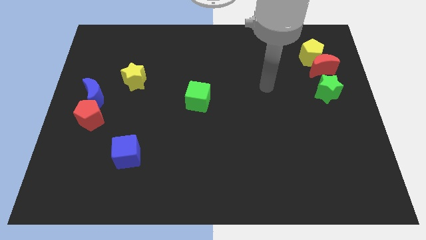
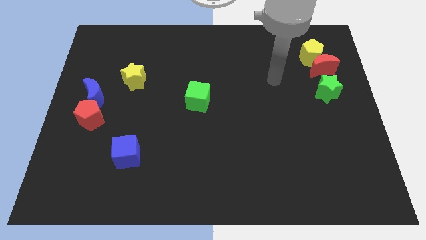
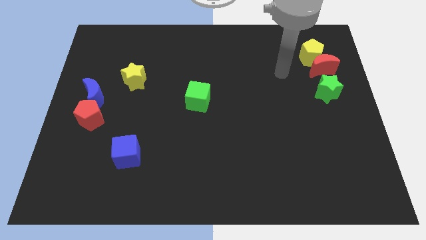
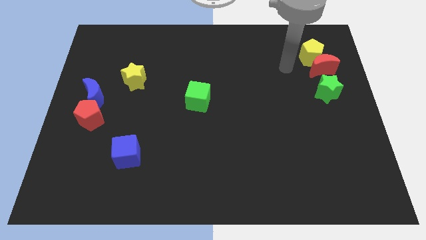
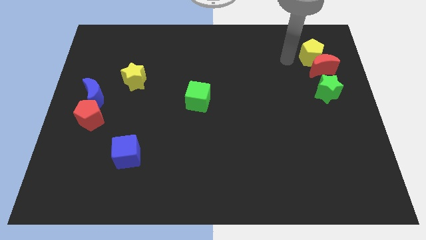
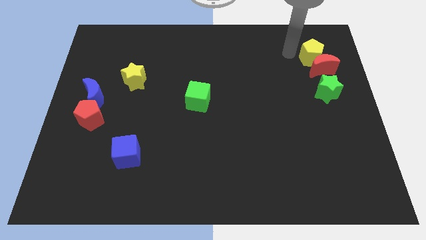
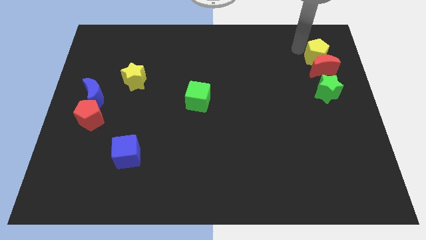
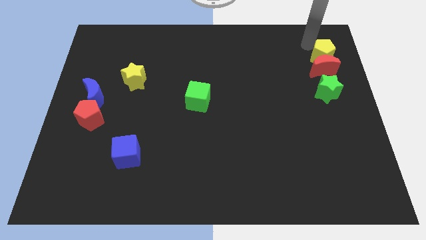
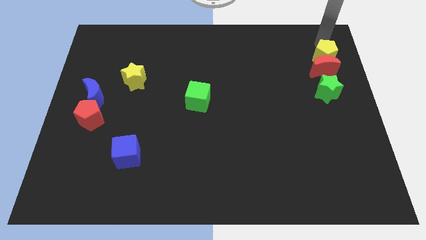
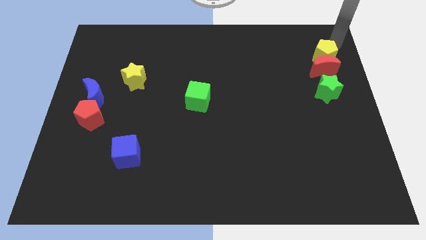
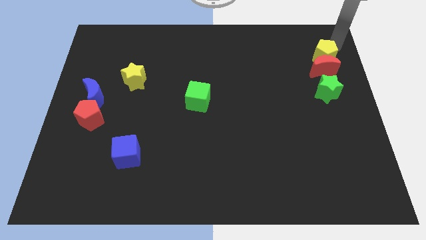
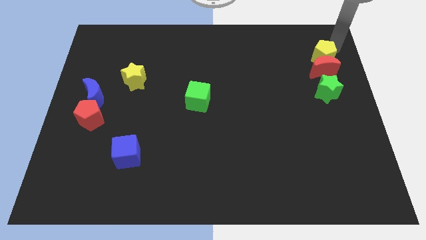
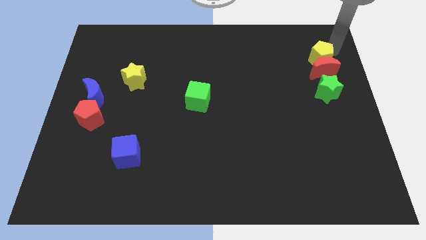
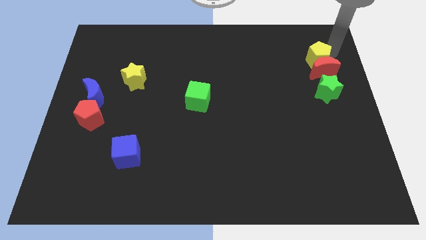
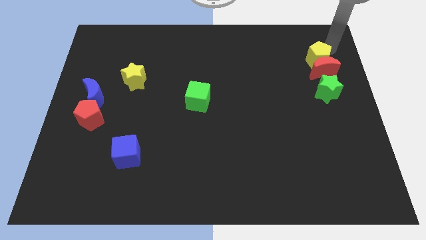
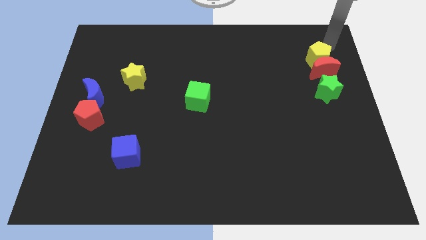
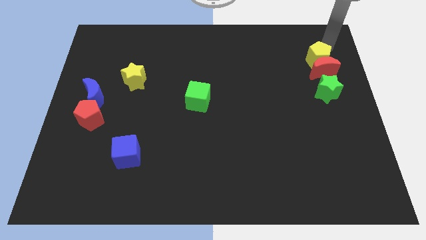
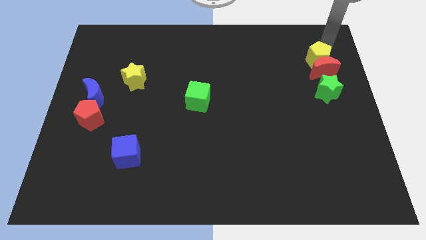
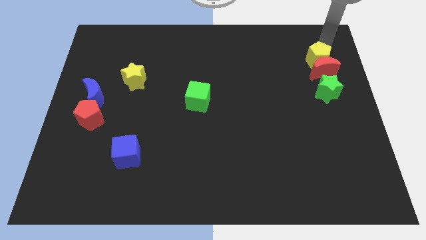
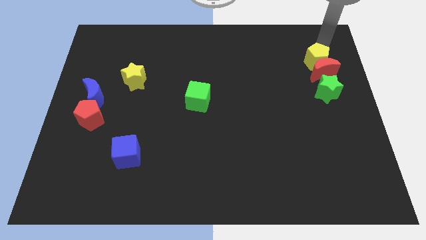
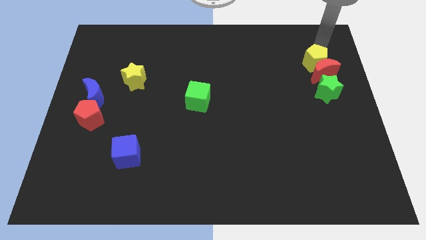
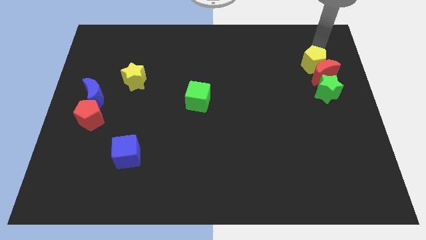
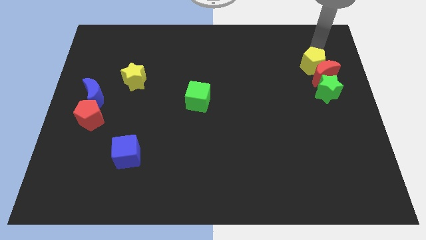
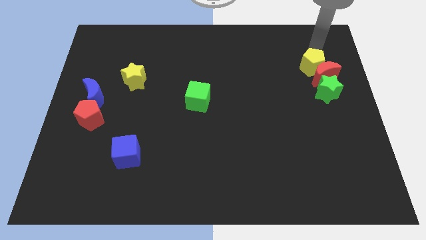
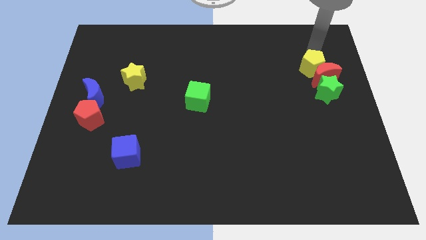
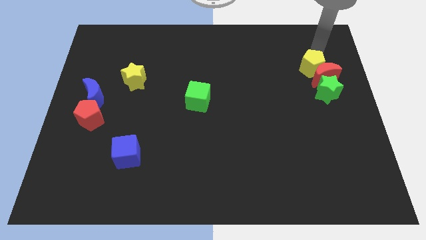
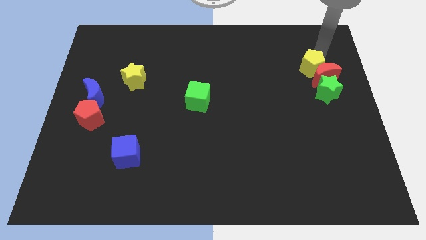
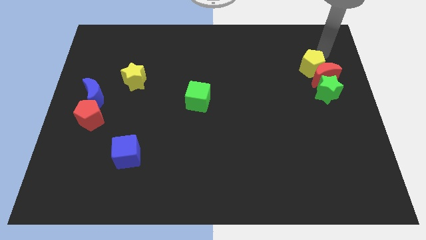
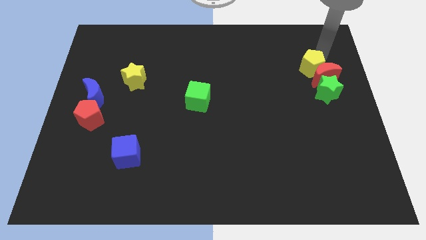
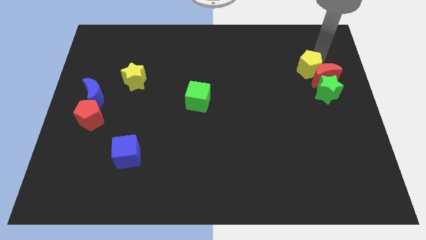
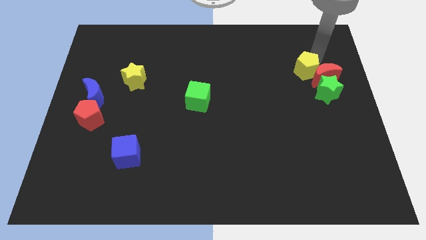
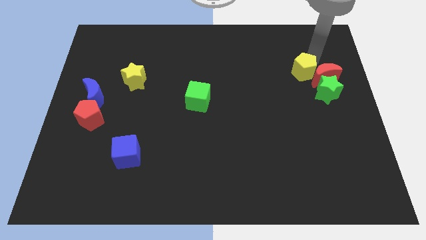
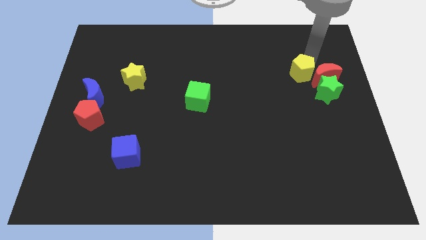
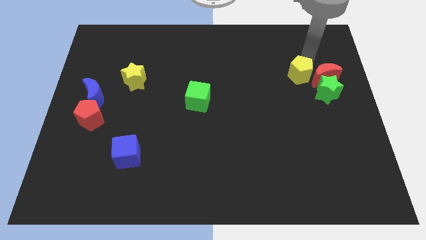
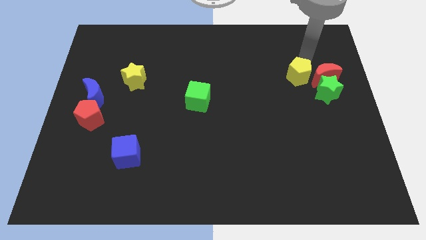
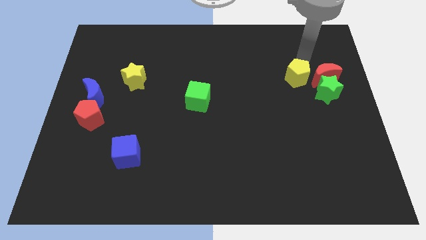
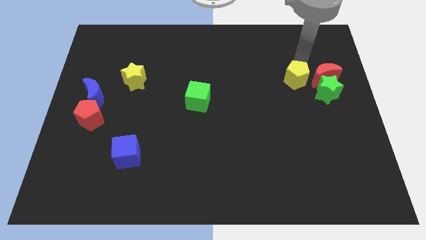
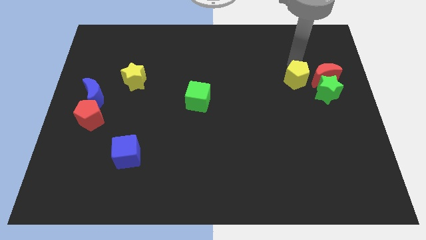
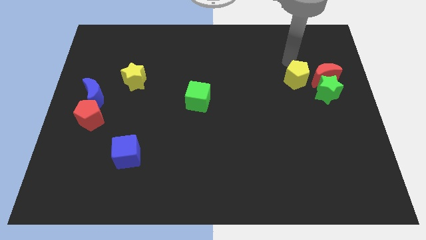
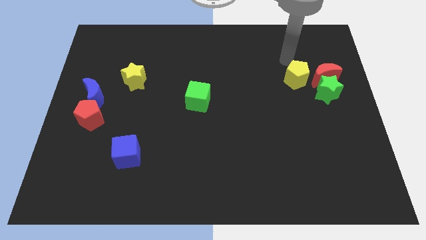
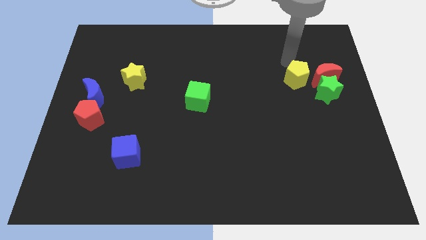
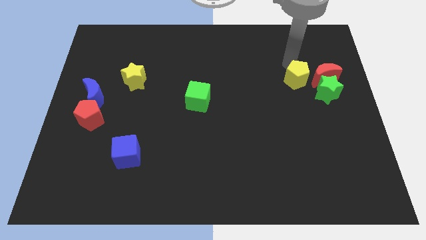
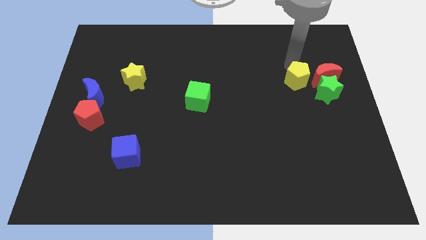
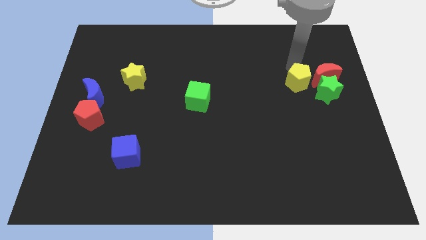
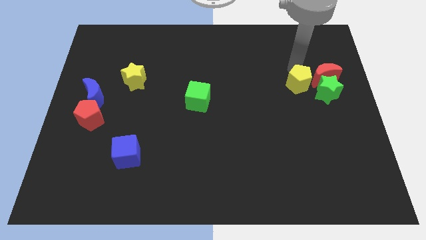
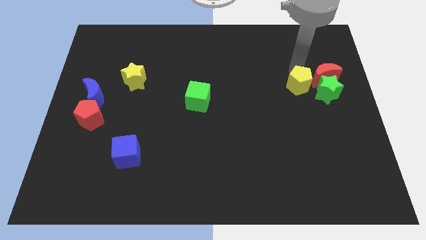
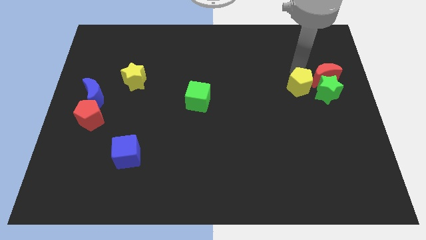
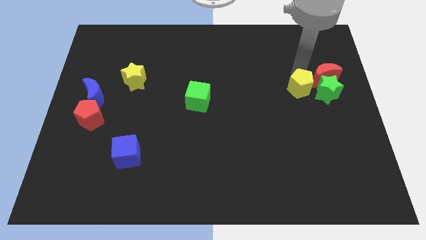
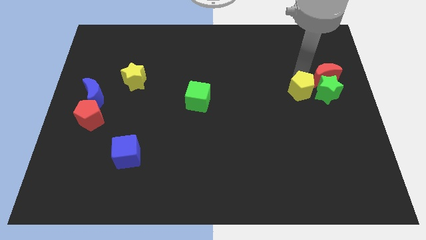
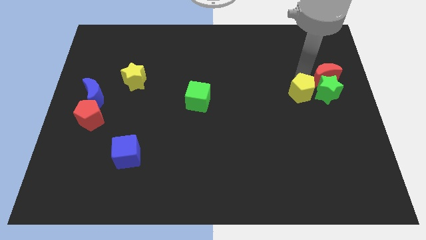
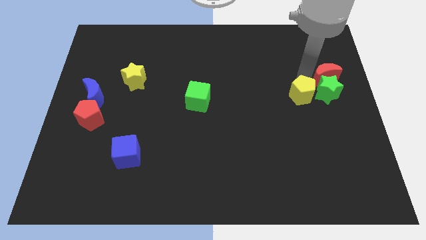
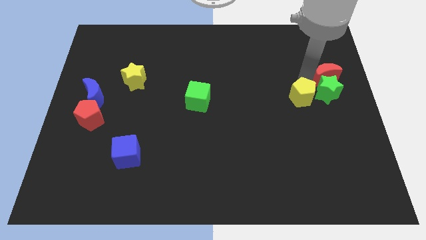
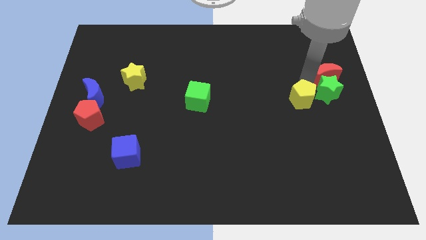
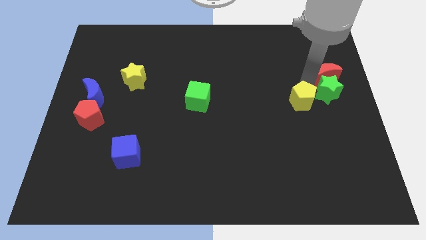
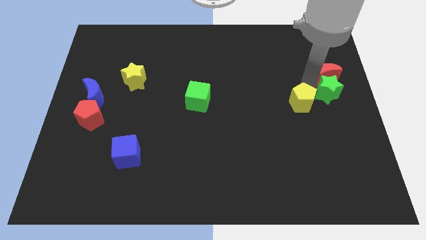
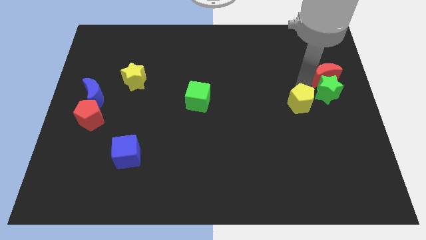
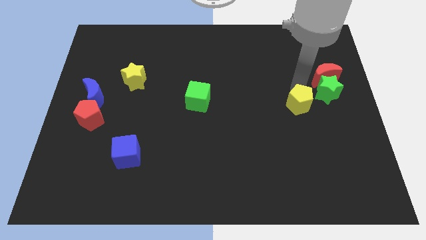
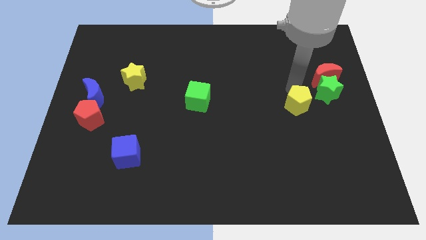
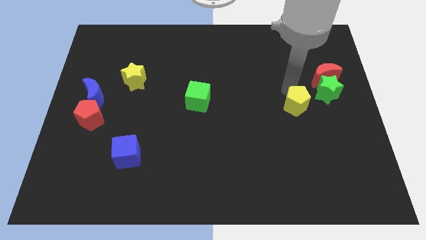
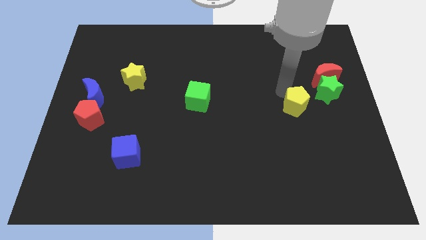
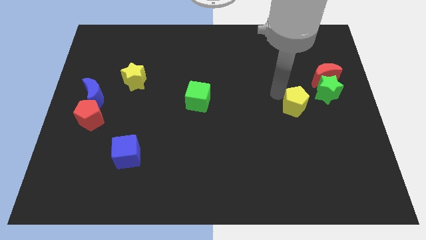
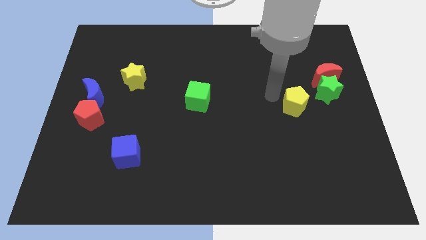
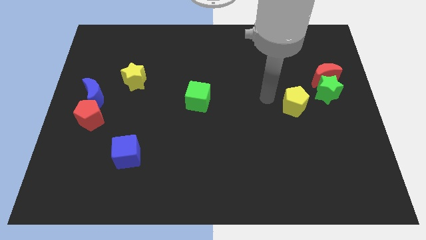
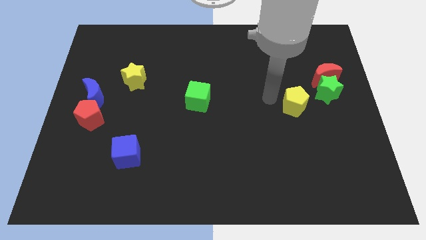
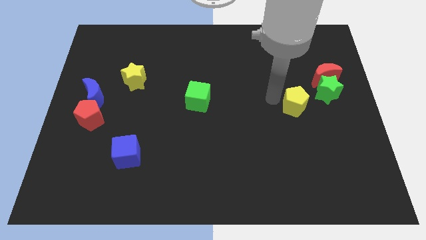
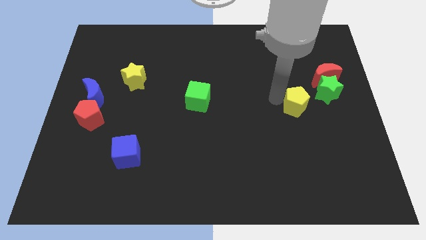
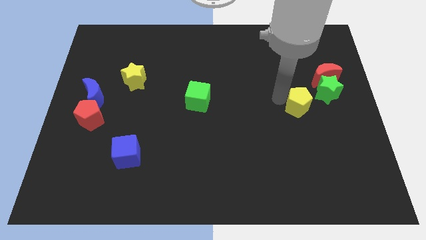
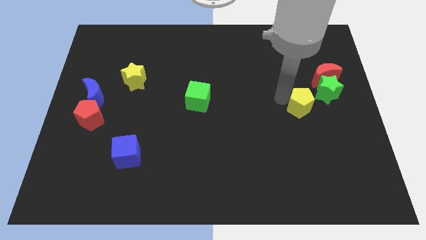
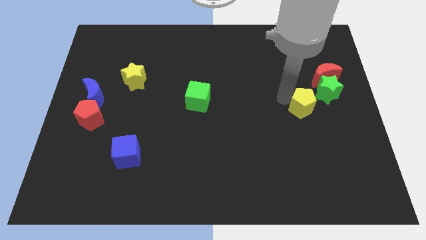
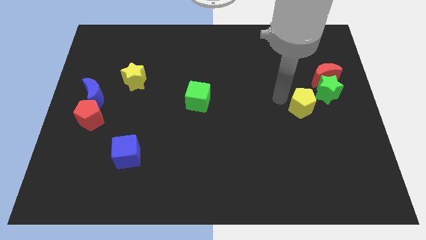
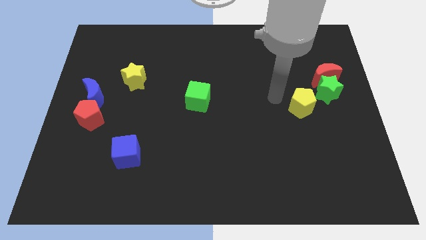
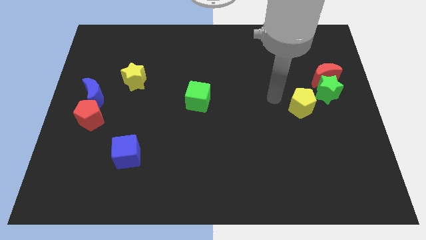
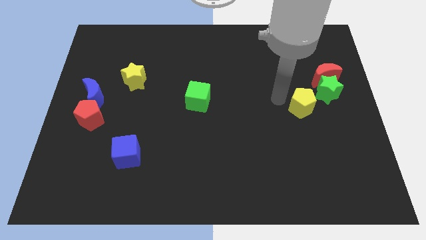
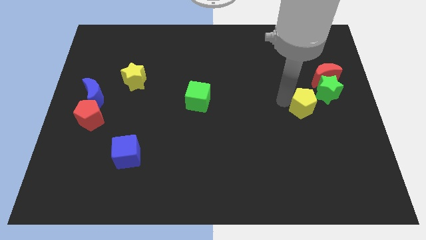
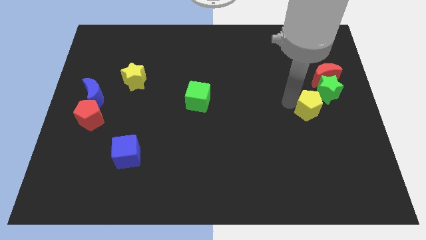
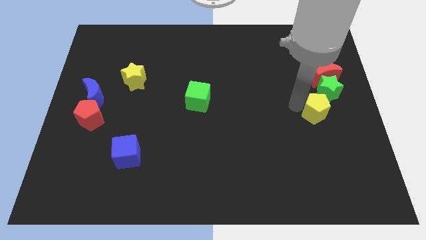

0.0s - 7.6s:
put the yellow pentagon to the bottom of the red moon

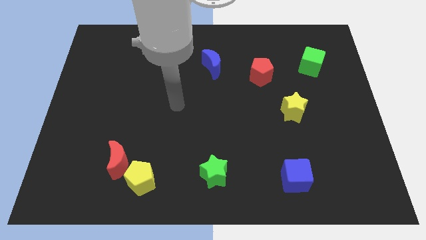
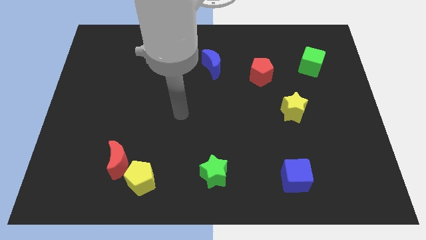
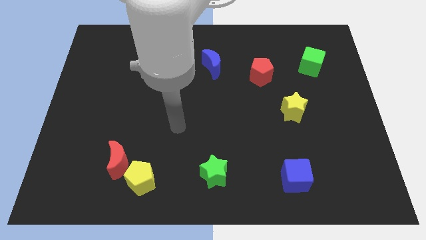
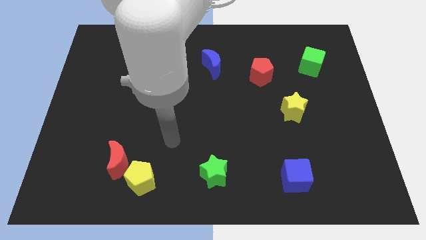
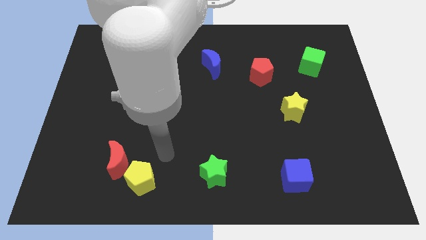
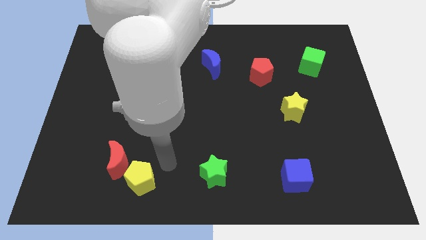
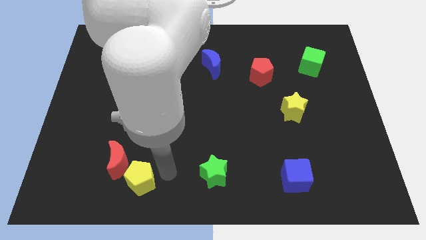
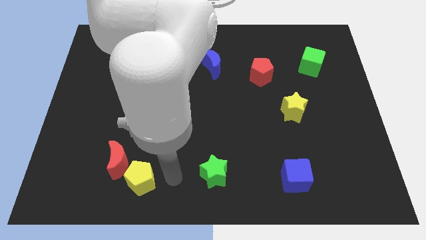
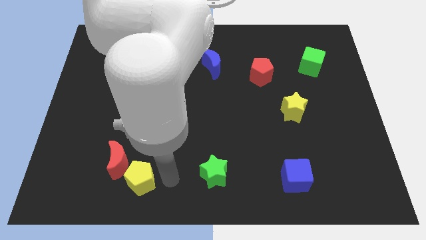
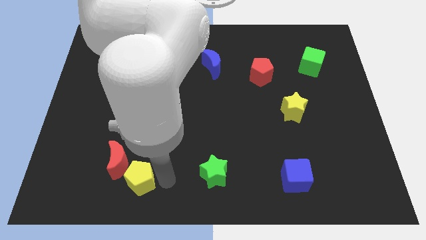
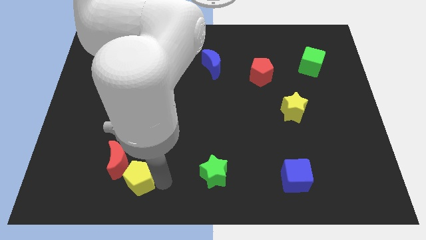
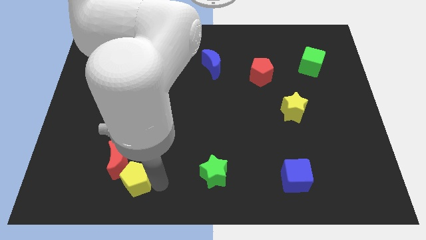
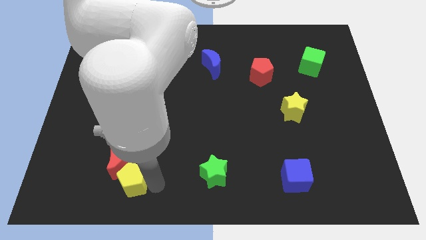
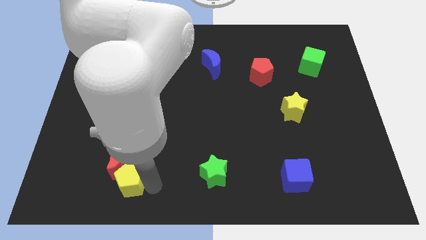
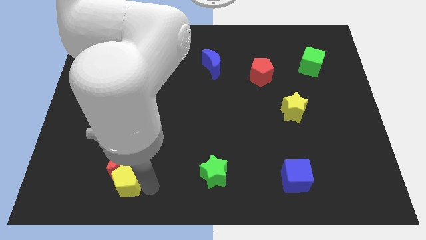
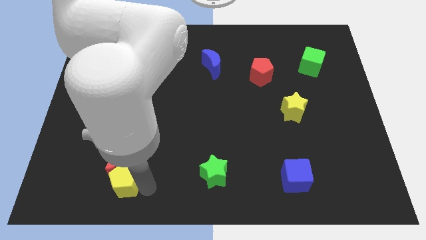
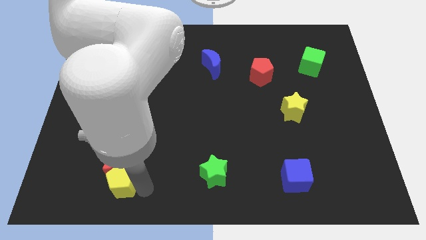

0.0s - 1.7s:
move the yellow pentagon to the bottom left side of the red moon
